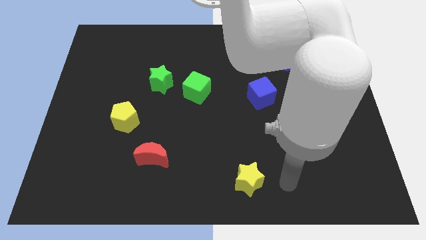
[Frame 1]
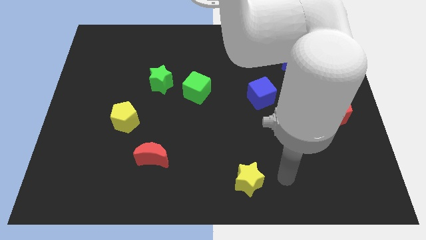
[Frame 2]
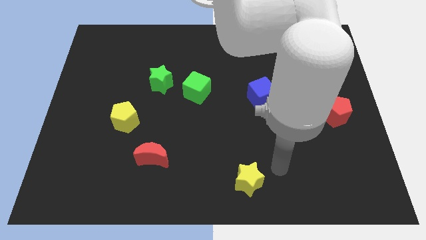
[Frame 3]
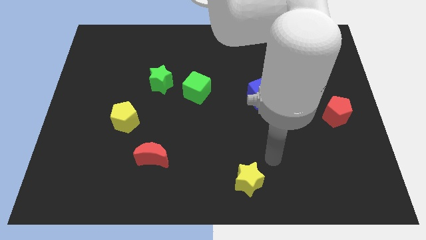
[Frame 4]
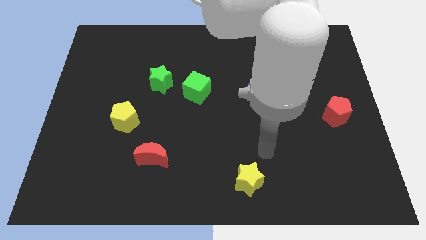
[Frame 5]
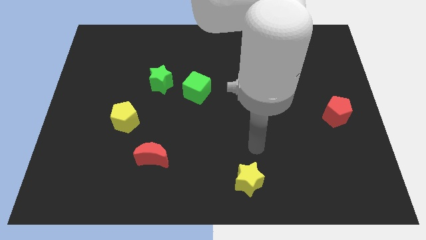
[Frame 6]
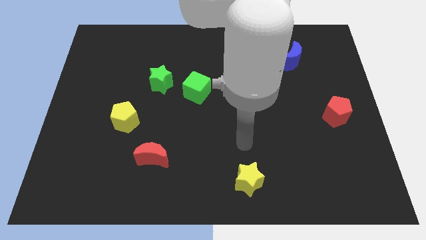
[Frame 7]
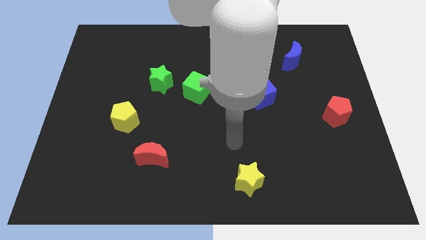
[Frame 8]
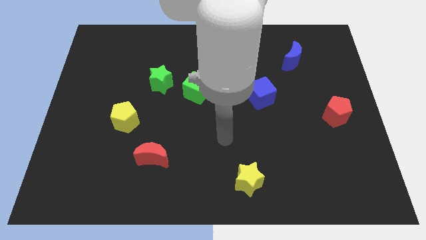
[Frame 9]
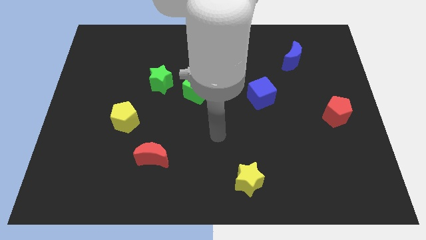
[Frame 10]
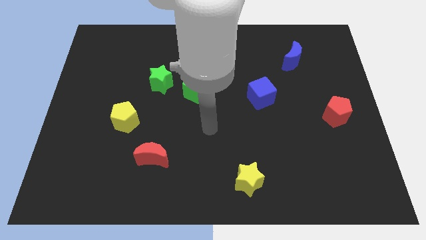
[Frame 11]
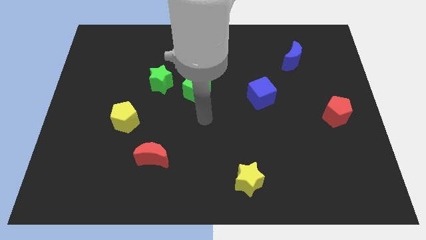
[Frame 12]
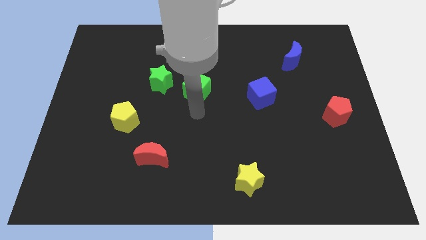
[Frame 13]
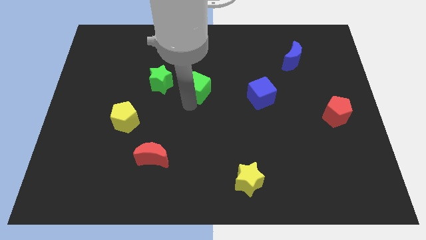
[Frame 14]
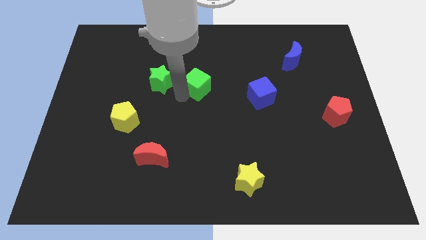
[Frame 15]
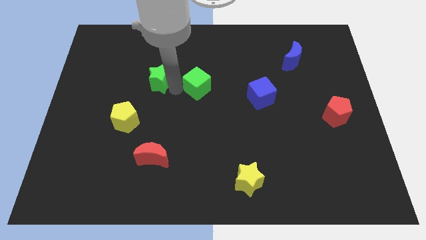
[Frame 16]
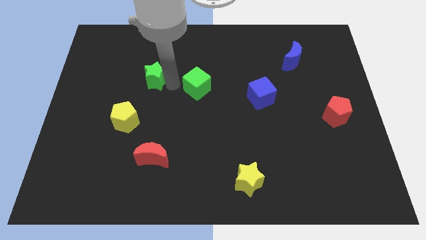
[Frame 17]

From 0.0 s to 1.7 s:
move the green cube away from the green star

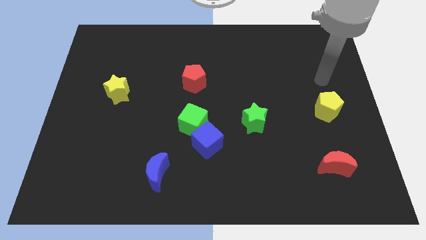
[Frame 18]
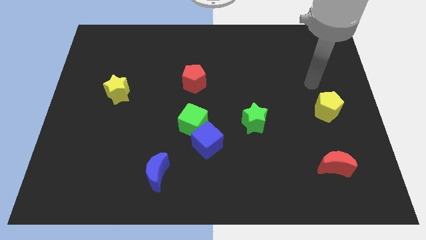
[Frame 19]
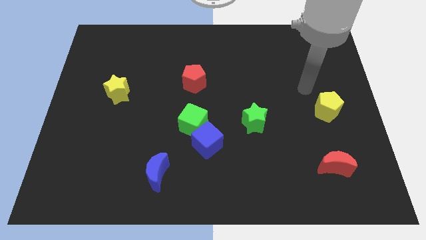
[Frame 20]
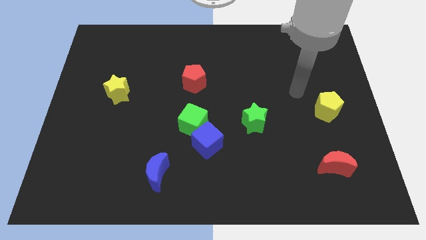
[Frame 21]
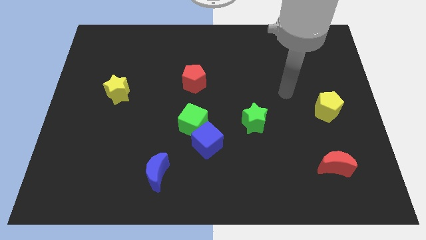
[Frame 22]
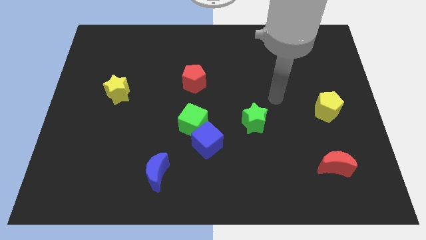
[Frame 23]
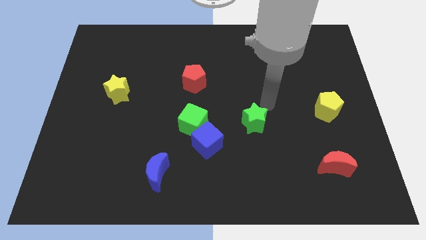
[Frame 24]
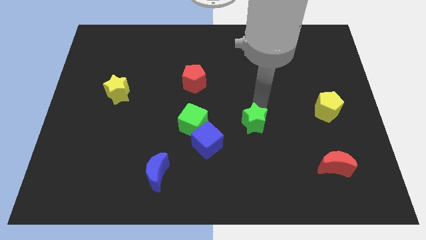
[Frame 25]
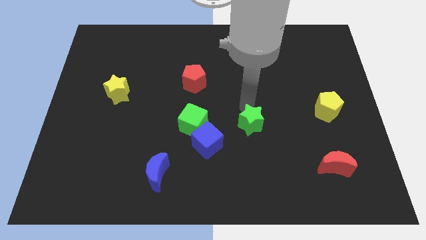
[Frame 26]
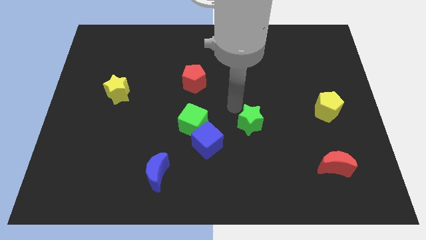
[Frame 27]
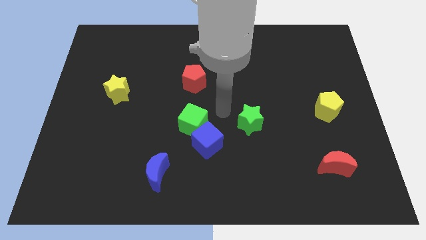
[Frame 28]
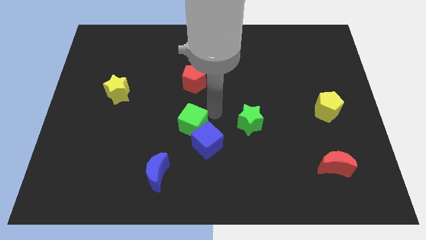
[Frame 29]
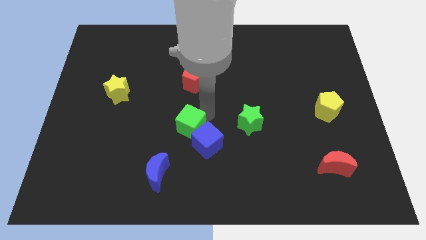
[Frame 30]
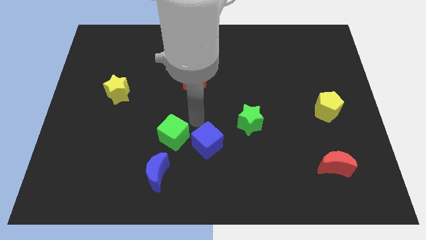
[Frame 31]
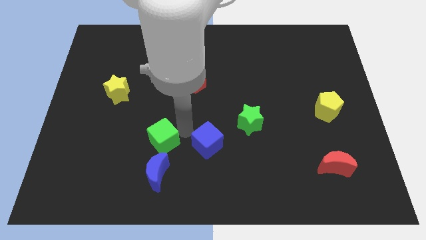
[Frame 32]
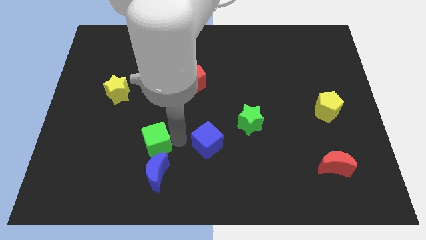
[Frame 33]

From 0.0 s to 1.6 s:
pull the blue cube apart from the green cube

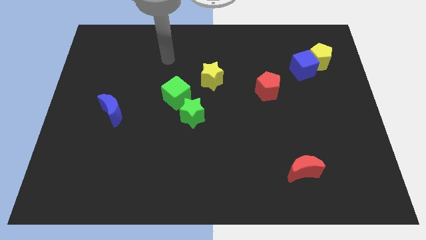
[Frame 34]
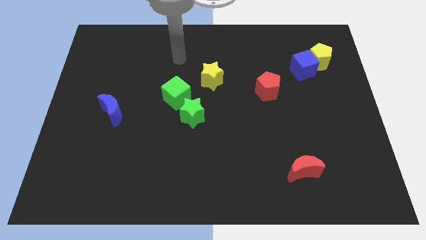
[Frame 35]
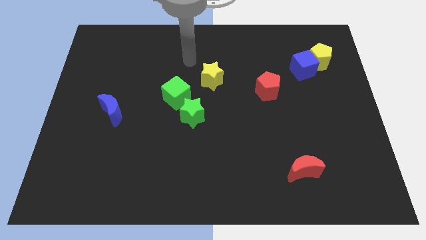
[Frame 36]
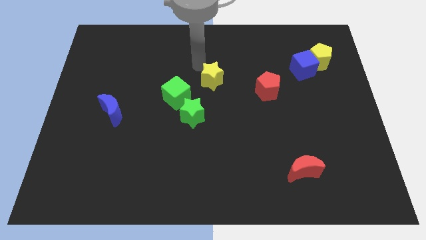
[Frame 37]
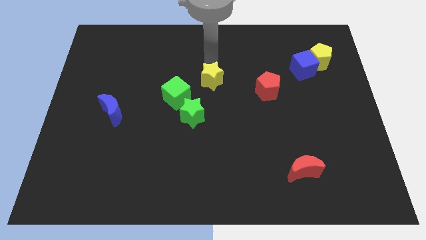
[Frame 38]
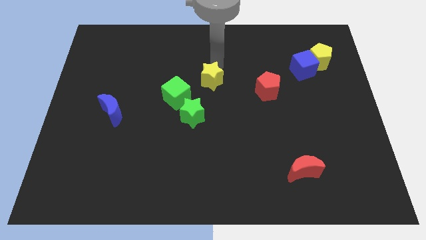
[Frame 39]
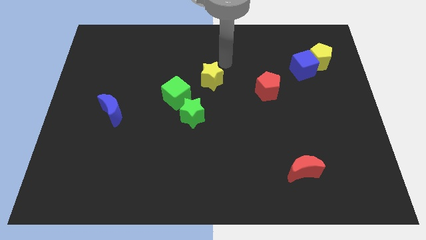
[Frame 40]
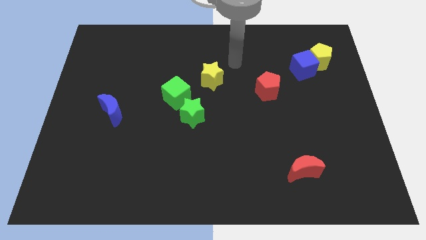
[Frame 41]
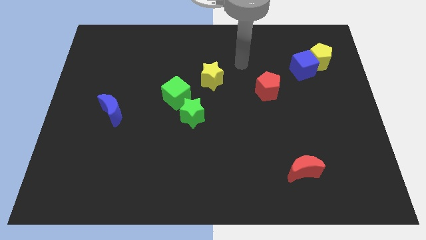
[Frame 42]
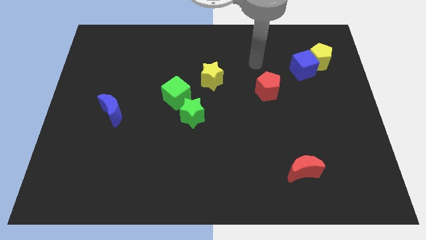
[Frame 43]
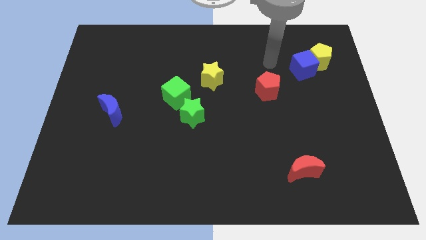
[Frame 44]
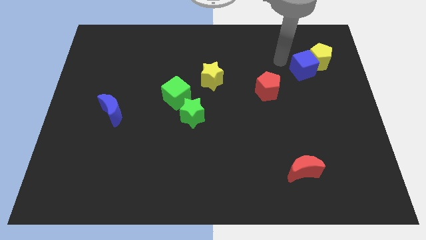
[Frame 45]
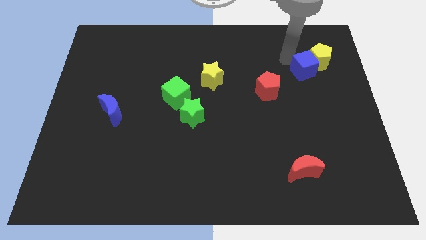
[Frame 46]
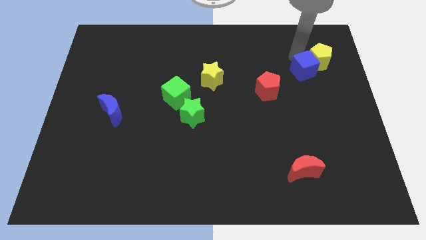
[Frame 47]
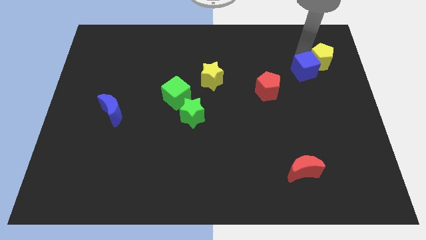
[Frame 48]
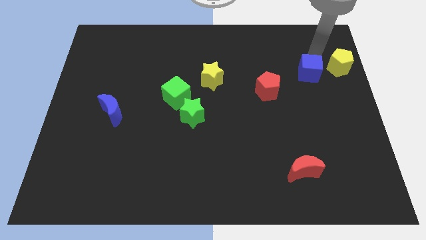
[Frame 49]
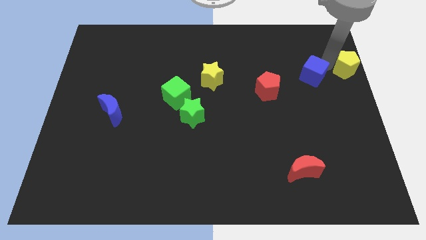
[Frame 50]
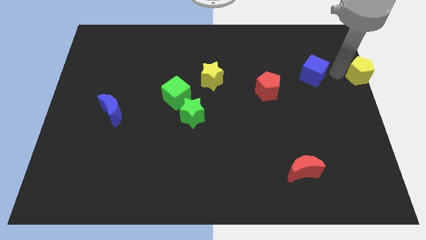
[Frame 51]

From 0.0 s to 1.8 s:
pull the blue cube apart from the yellow pentagon

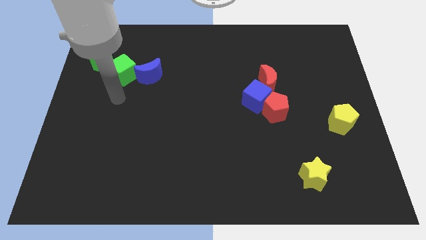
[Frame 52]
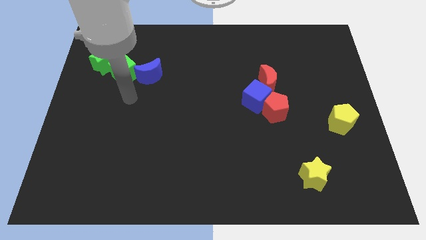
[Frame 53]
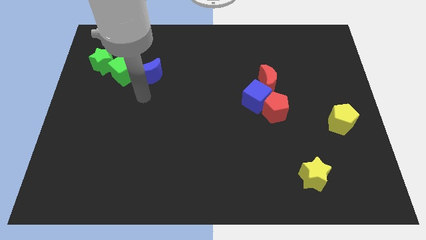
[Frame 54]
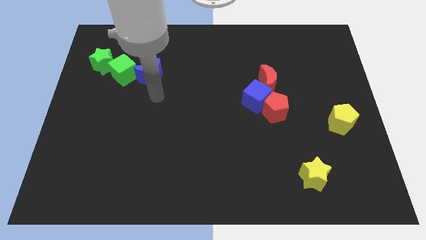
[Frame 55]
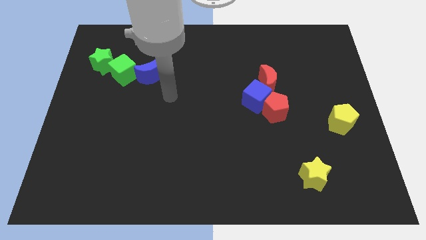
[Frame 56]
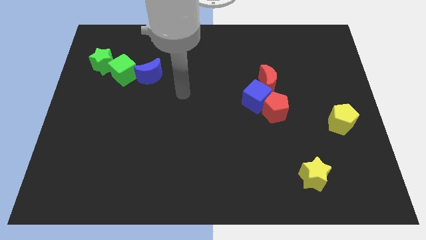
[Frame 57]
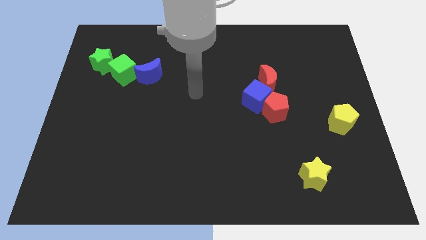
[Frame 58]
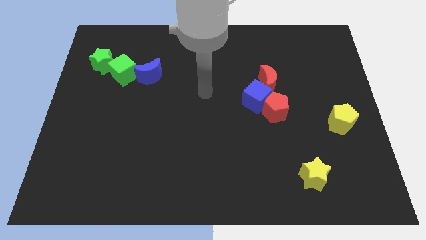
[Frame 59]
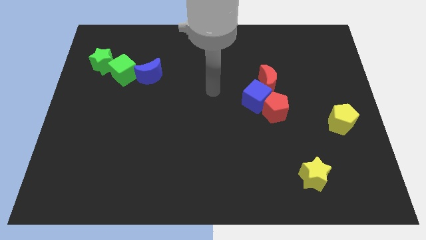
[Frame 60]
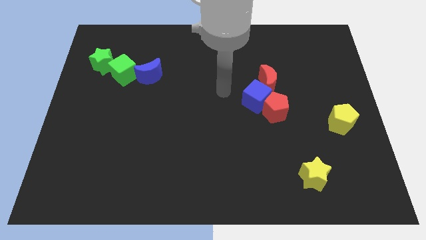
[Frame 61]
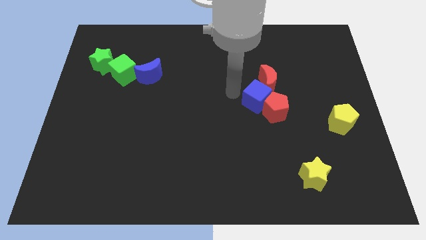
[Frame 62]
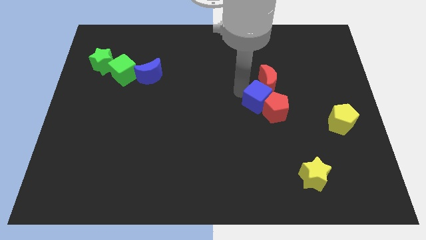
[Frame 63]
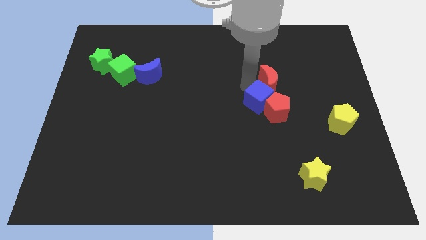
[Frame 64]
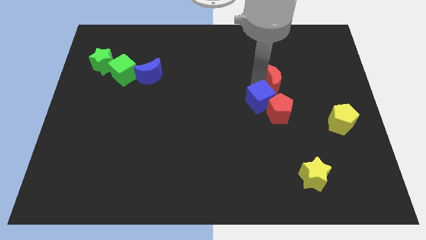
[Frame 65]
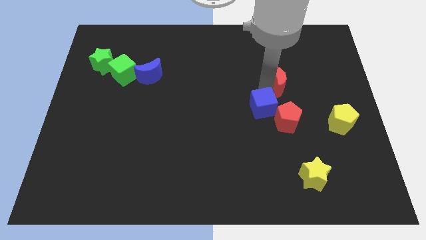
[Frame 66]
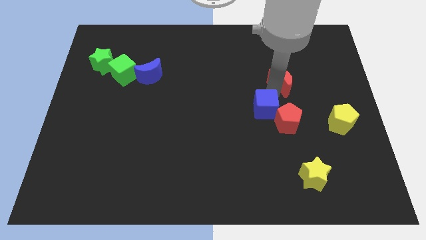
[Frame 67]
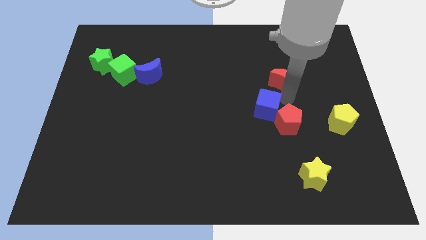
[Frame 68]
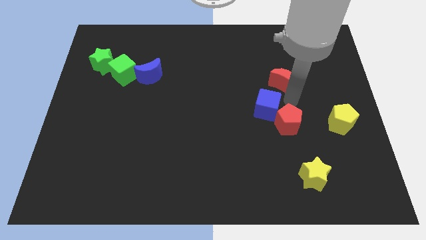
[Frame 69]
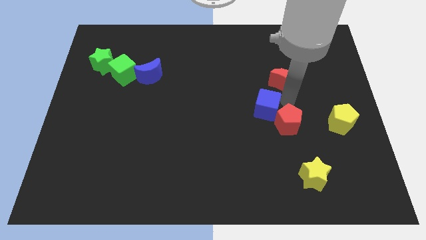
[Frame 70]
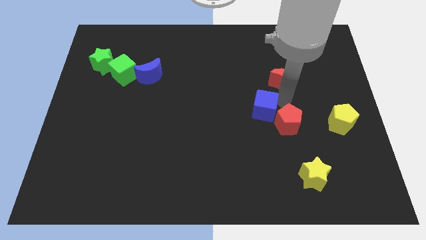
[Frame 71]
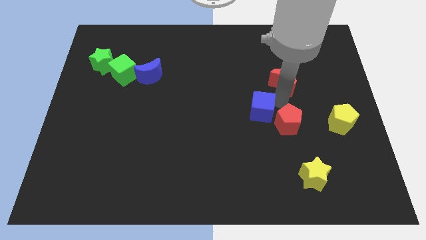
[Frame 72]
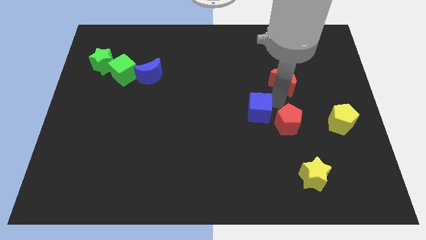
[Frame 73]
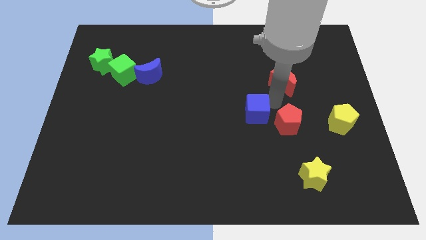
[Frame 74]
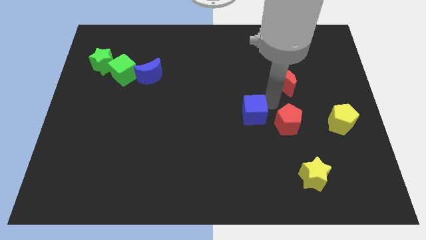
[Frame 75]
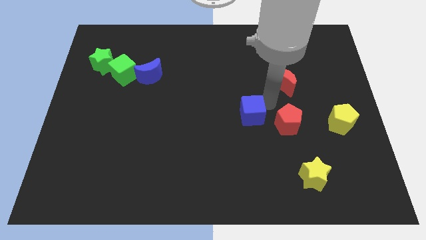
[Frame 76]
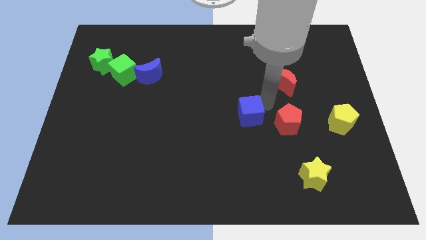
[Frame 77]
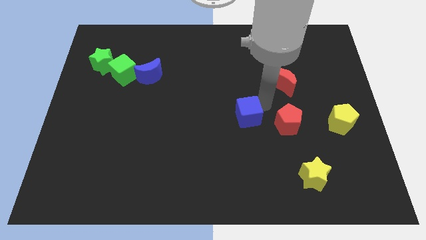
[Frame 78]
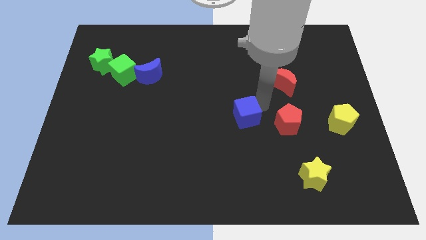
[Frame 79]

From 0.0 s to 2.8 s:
separate the blue cube from the red pentagon and red moon

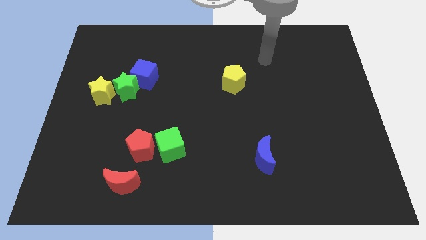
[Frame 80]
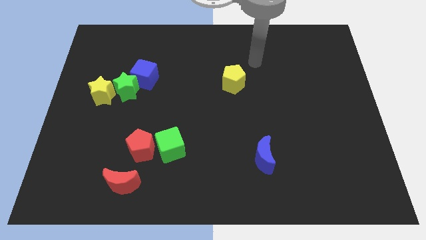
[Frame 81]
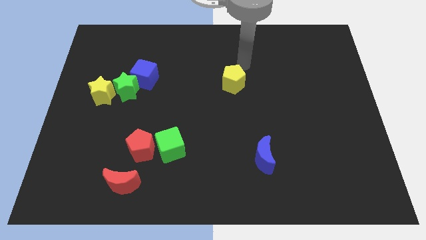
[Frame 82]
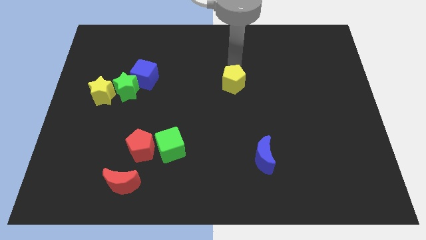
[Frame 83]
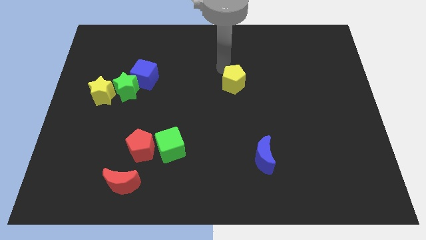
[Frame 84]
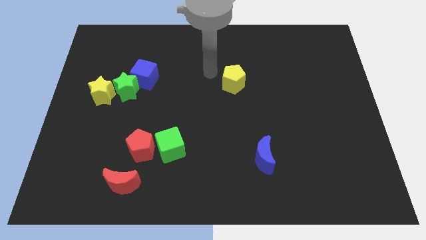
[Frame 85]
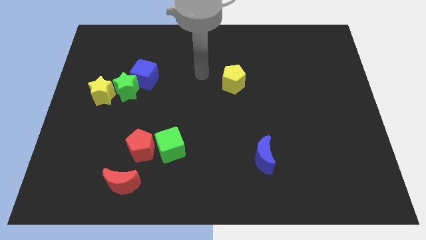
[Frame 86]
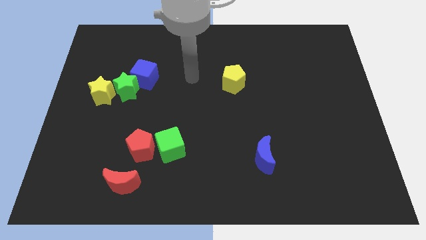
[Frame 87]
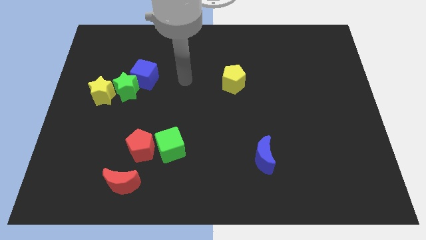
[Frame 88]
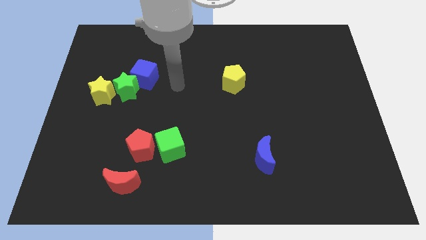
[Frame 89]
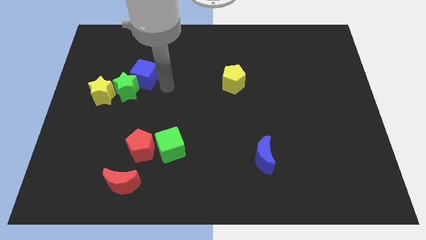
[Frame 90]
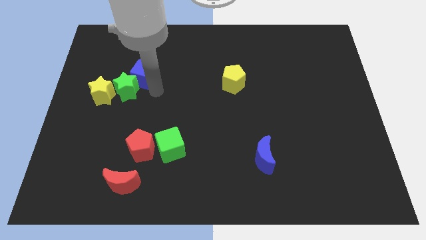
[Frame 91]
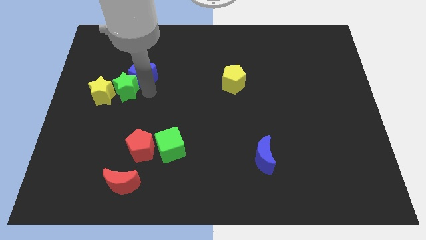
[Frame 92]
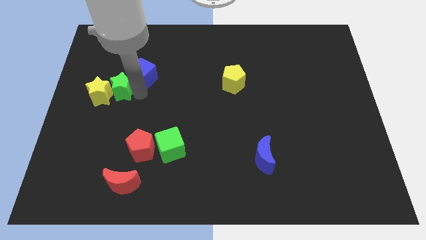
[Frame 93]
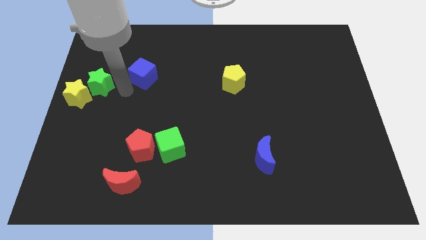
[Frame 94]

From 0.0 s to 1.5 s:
move the blue cube away from the green star
